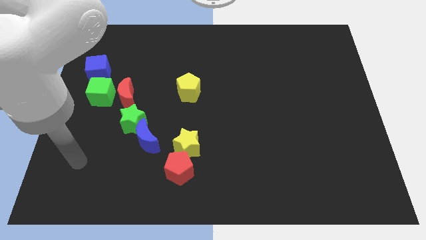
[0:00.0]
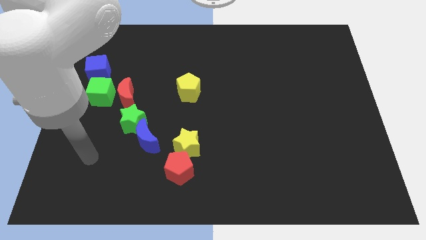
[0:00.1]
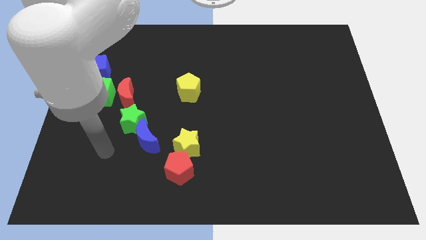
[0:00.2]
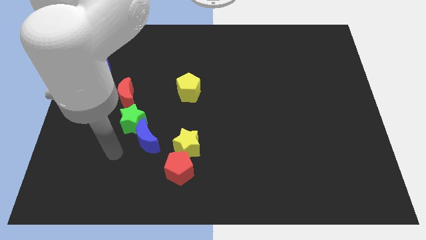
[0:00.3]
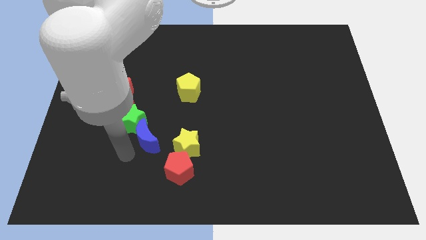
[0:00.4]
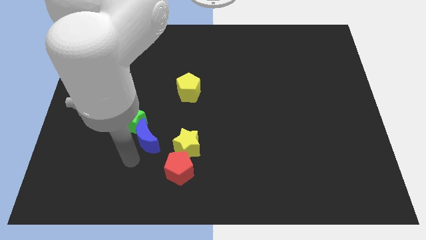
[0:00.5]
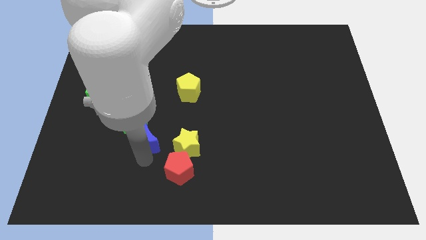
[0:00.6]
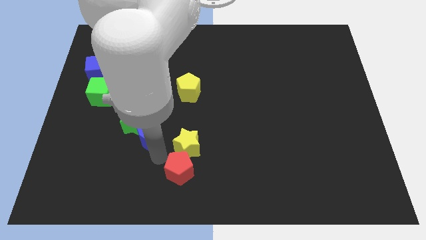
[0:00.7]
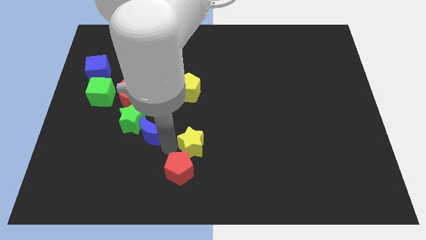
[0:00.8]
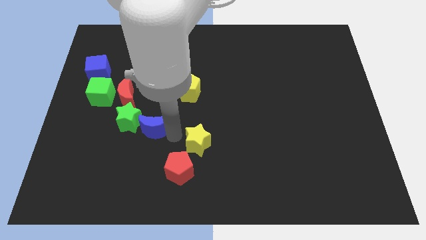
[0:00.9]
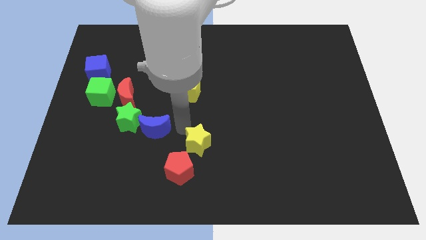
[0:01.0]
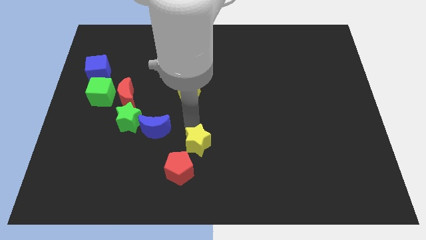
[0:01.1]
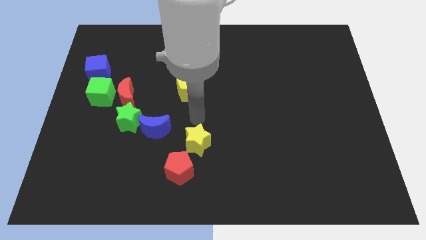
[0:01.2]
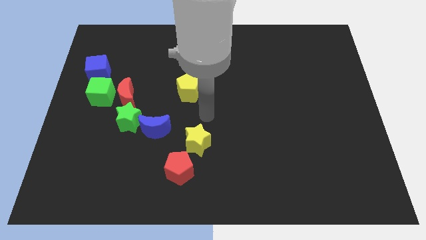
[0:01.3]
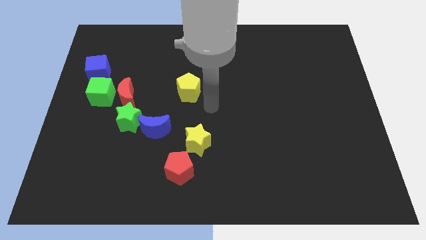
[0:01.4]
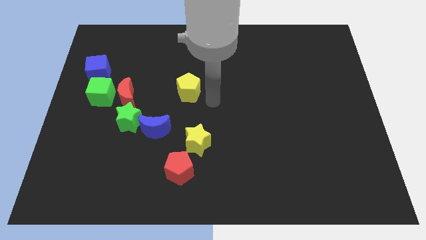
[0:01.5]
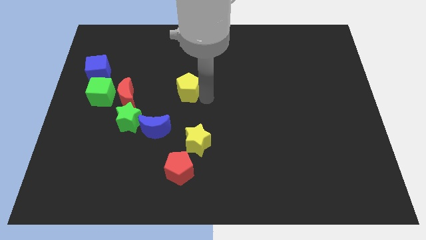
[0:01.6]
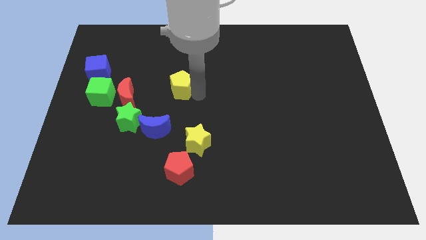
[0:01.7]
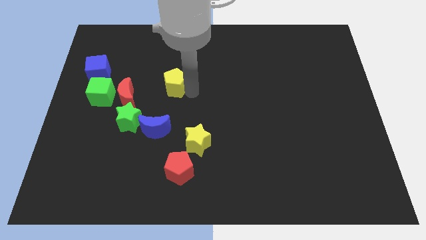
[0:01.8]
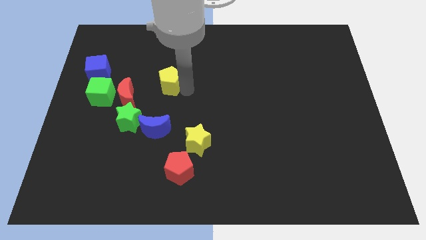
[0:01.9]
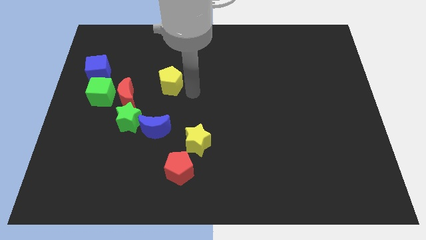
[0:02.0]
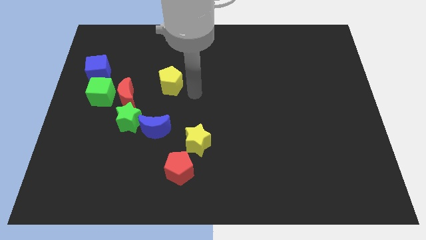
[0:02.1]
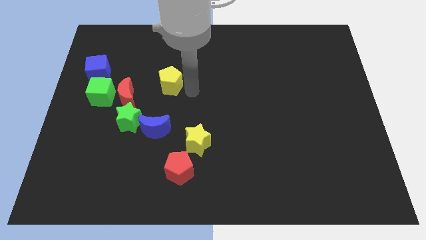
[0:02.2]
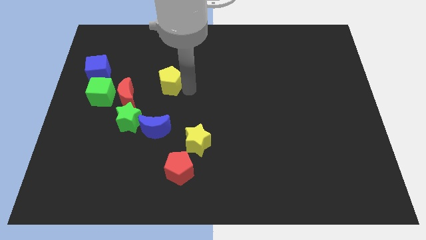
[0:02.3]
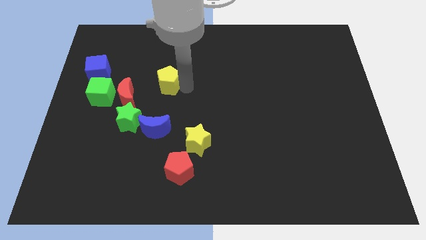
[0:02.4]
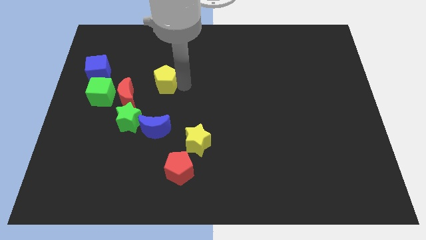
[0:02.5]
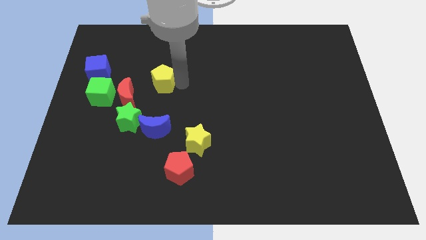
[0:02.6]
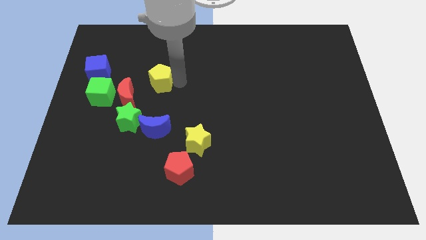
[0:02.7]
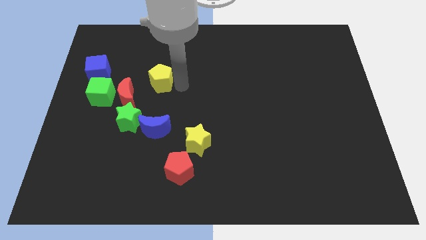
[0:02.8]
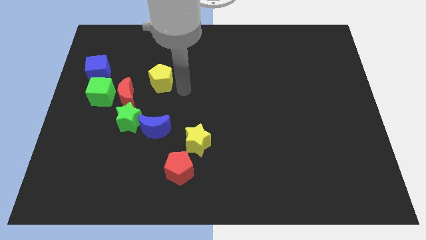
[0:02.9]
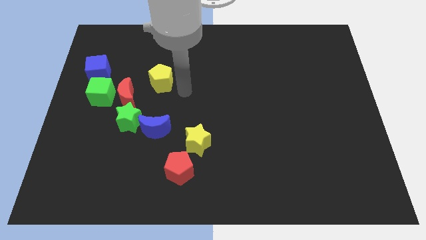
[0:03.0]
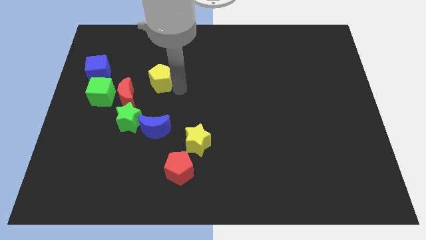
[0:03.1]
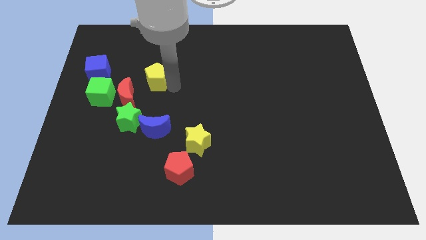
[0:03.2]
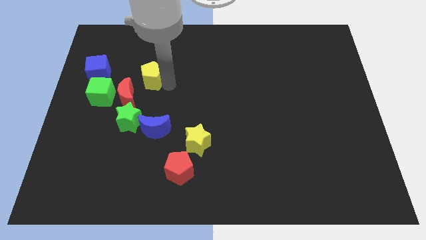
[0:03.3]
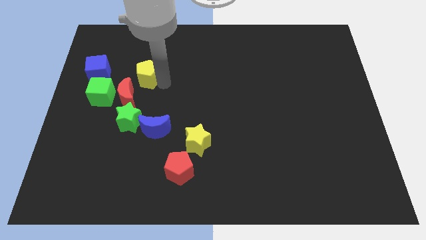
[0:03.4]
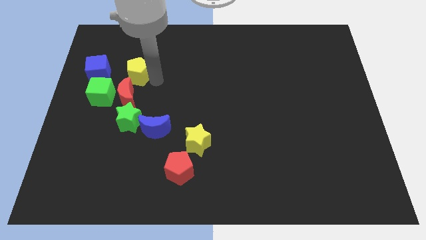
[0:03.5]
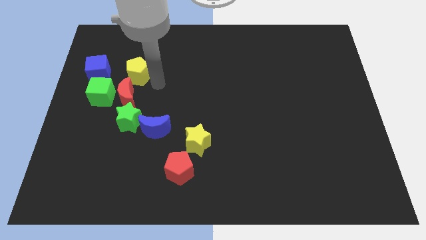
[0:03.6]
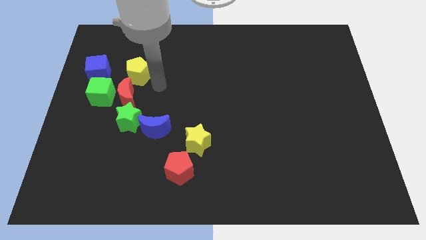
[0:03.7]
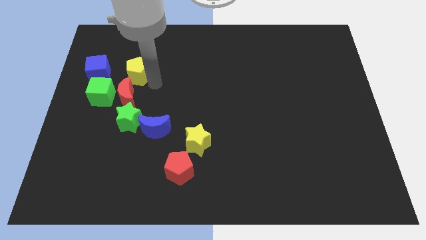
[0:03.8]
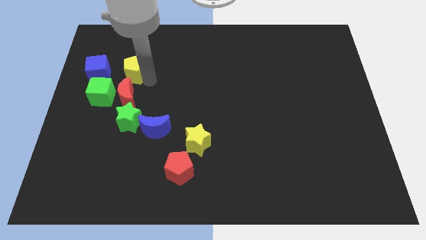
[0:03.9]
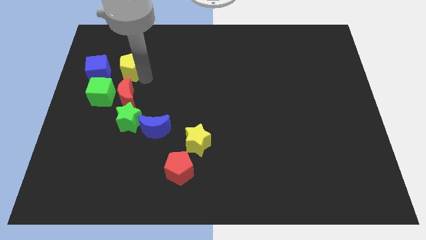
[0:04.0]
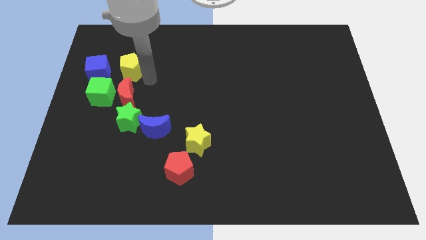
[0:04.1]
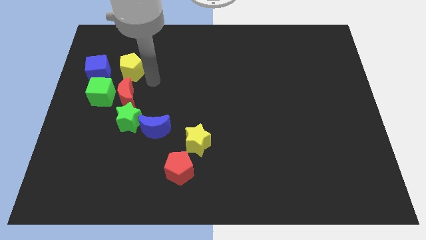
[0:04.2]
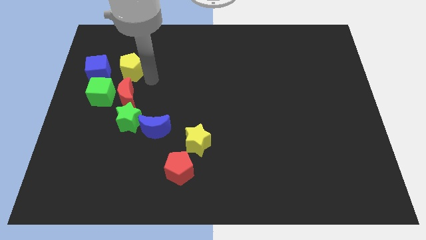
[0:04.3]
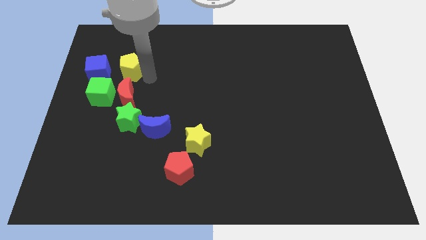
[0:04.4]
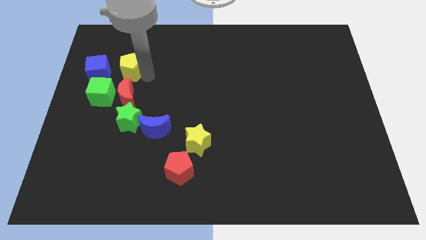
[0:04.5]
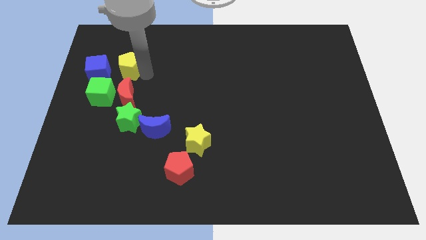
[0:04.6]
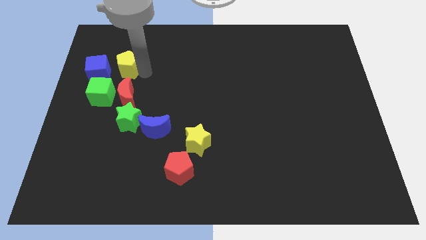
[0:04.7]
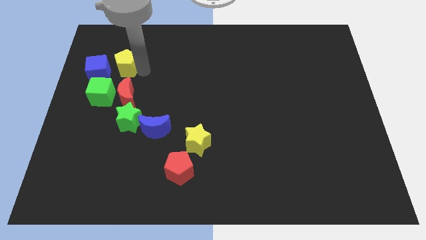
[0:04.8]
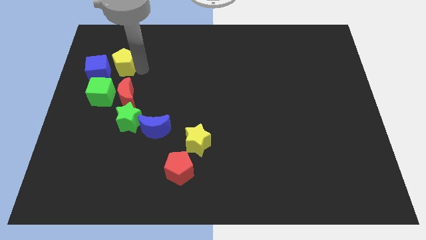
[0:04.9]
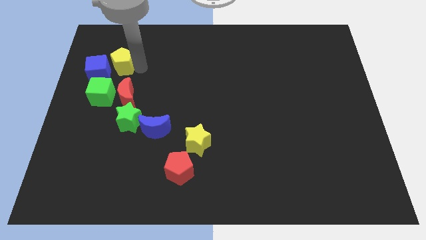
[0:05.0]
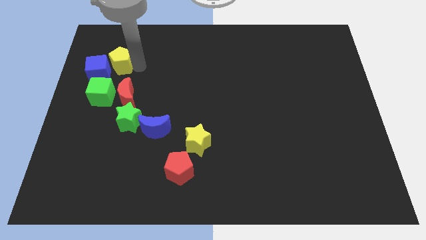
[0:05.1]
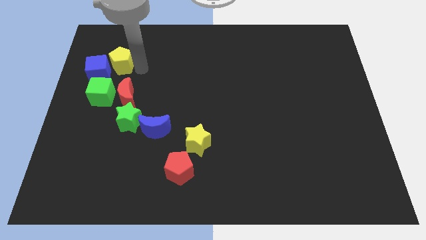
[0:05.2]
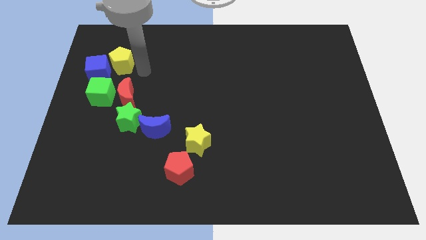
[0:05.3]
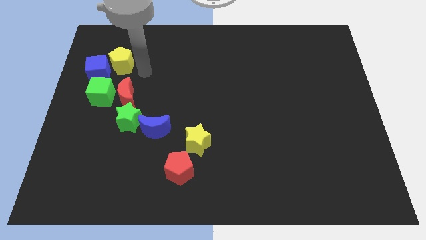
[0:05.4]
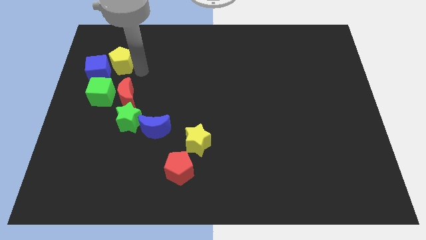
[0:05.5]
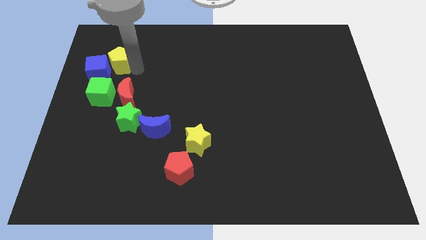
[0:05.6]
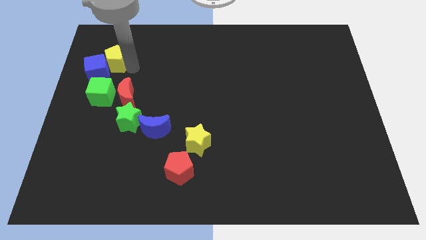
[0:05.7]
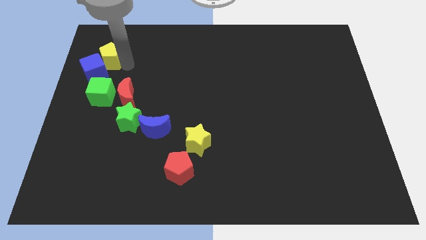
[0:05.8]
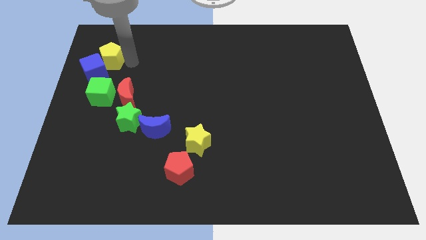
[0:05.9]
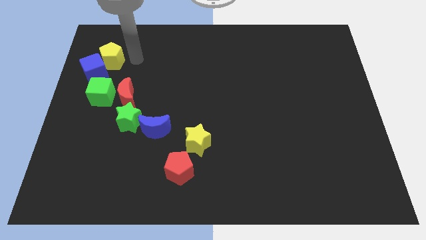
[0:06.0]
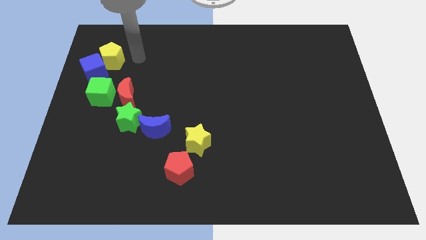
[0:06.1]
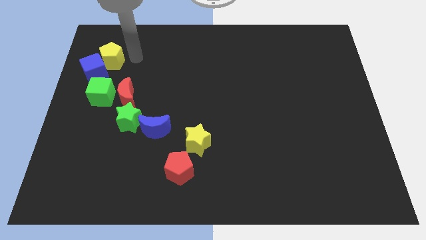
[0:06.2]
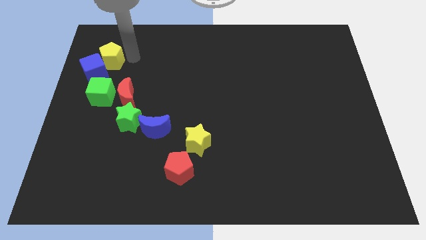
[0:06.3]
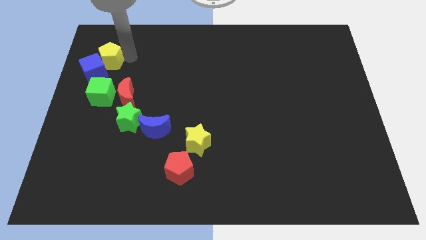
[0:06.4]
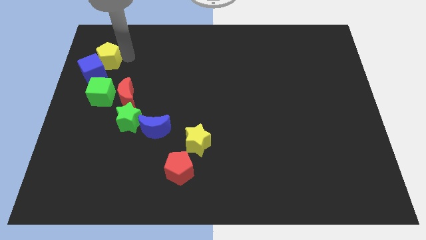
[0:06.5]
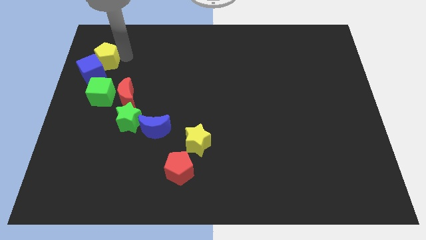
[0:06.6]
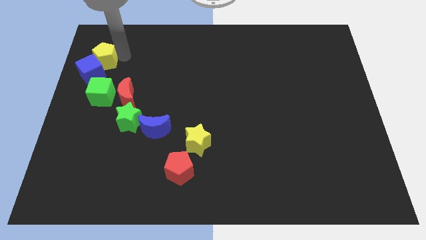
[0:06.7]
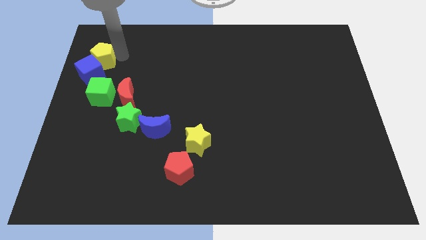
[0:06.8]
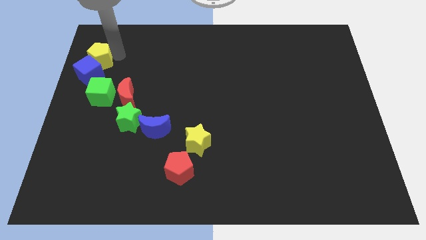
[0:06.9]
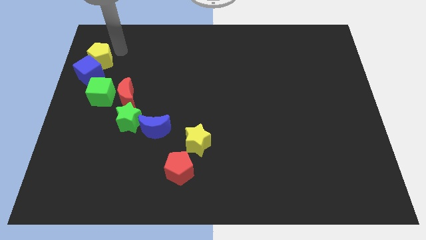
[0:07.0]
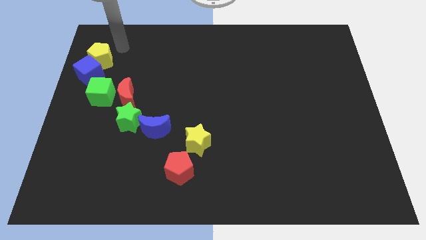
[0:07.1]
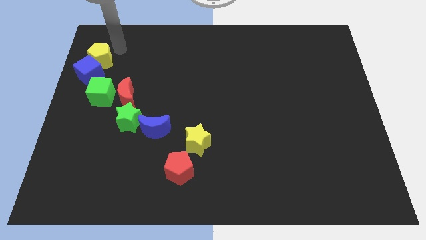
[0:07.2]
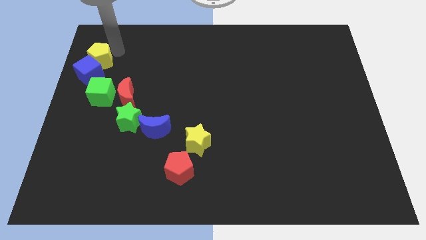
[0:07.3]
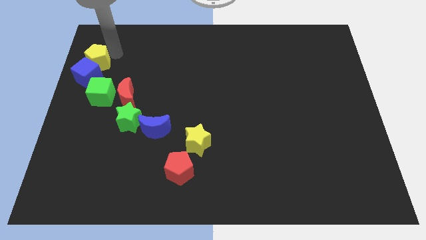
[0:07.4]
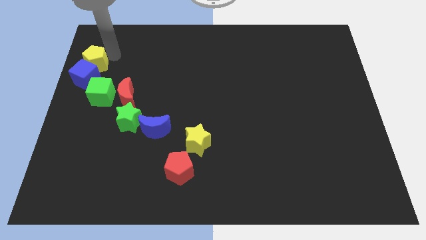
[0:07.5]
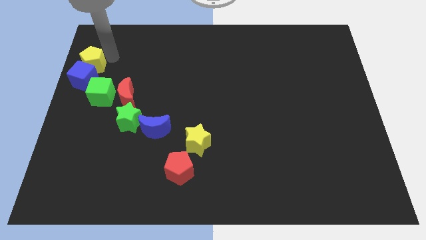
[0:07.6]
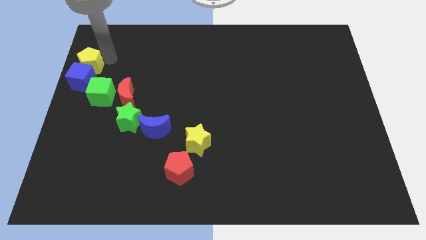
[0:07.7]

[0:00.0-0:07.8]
push the yellow pentagon to the left side of the board
